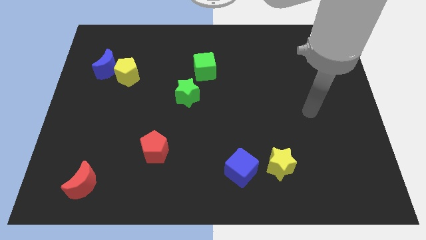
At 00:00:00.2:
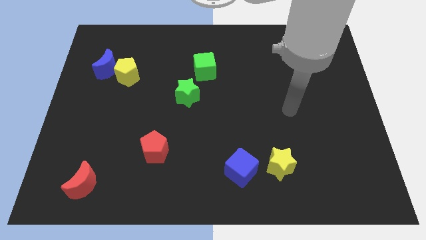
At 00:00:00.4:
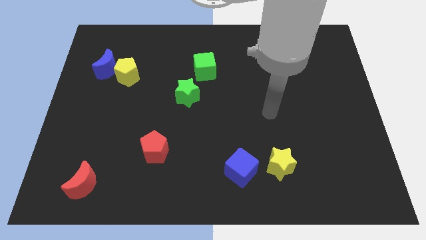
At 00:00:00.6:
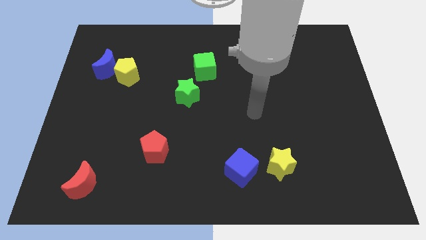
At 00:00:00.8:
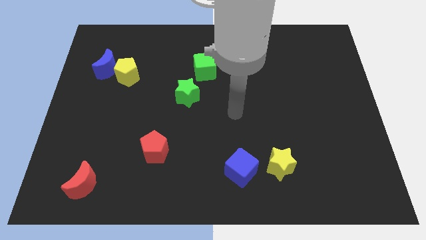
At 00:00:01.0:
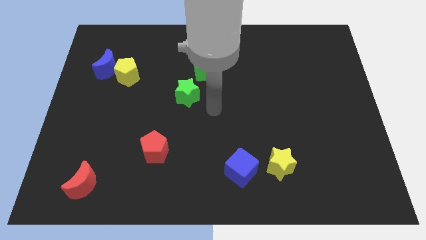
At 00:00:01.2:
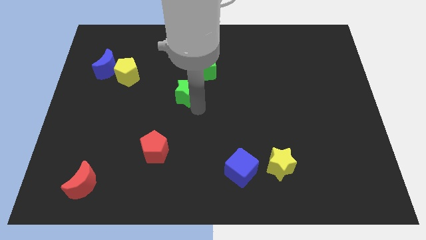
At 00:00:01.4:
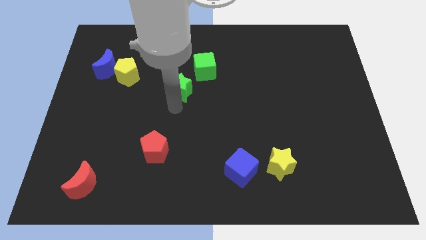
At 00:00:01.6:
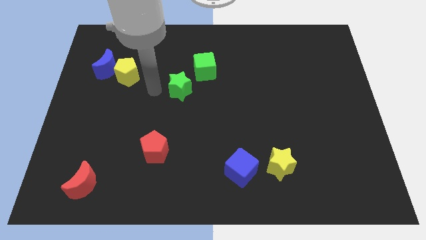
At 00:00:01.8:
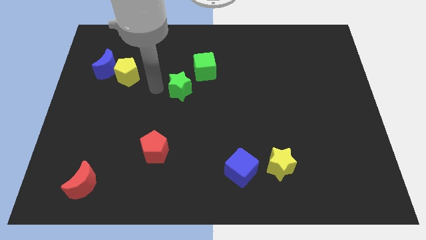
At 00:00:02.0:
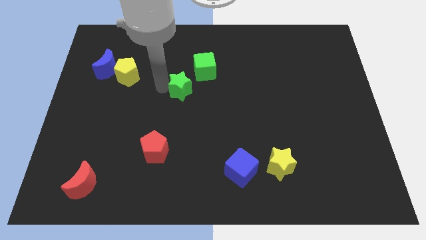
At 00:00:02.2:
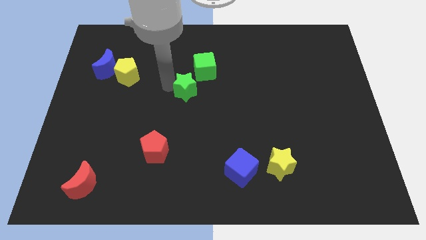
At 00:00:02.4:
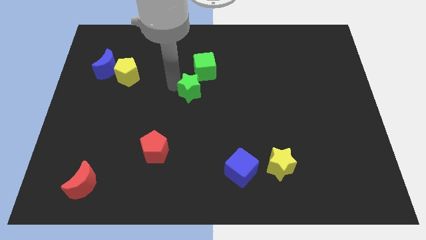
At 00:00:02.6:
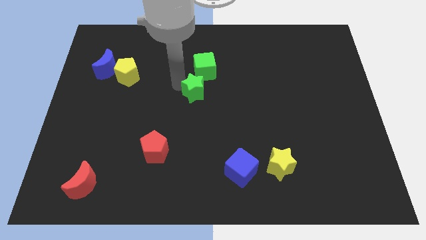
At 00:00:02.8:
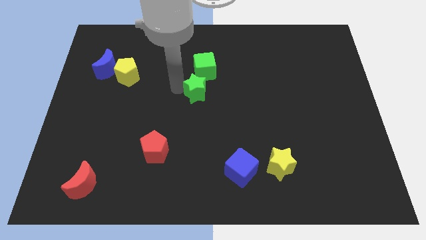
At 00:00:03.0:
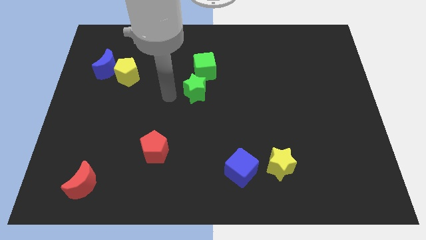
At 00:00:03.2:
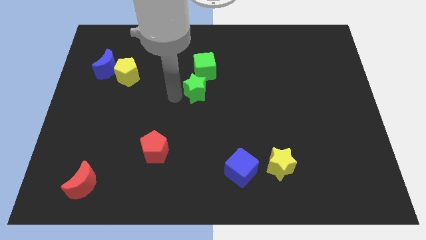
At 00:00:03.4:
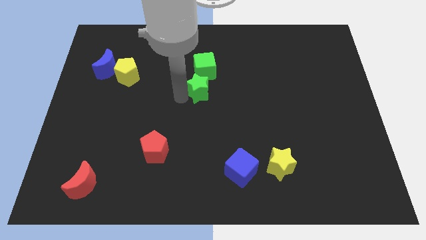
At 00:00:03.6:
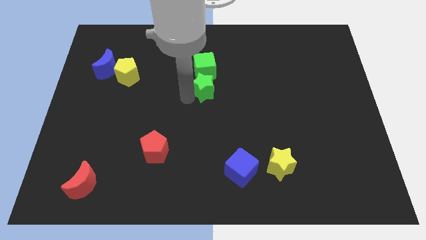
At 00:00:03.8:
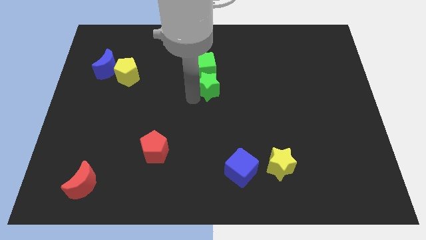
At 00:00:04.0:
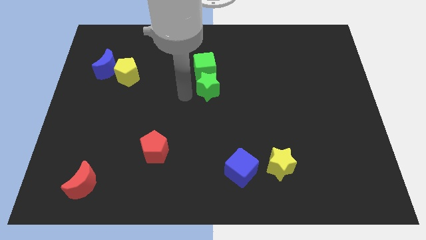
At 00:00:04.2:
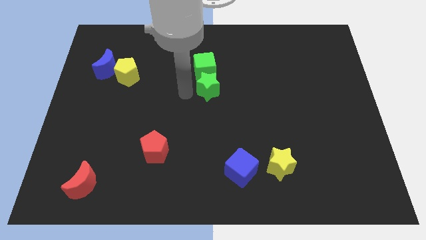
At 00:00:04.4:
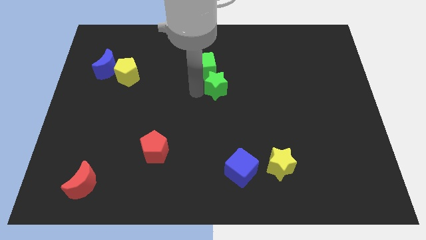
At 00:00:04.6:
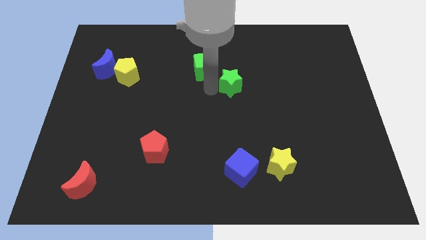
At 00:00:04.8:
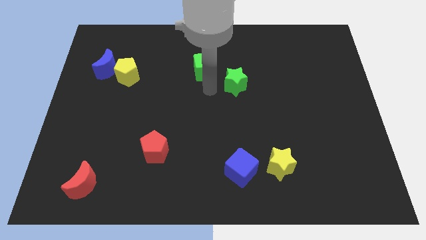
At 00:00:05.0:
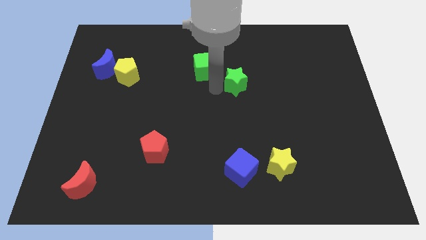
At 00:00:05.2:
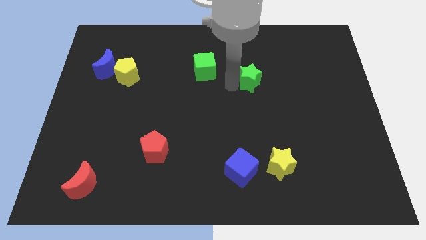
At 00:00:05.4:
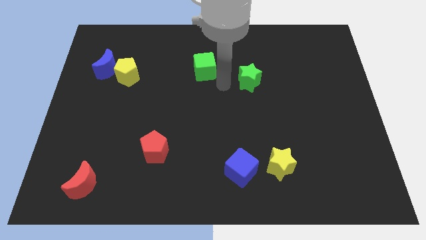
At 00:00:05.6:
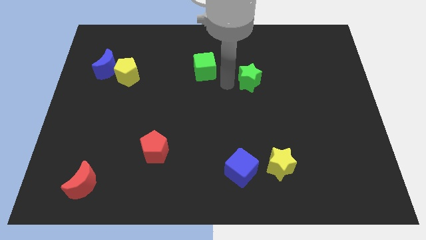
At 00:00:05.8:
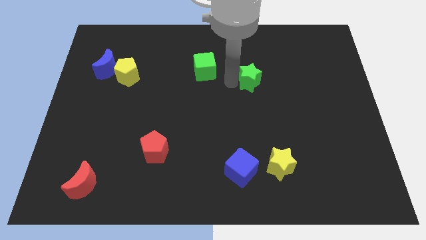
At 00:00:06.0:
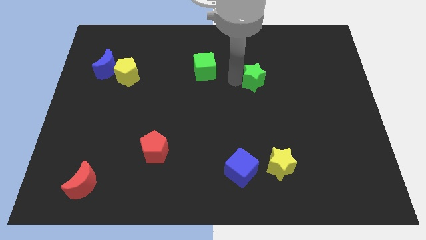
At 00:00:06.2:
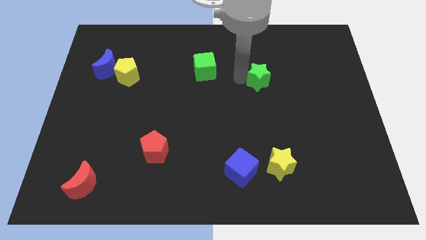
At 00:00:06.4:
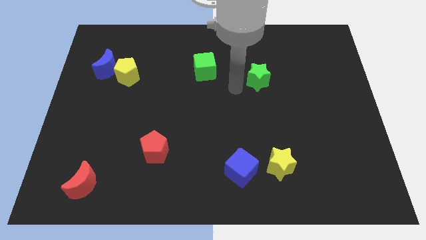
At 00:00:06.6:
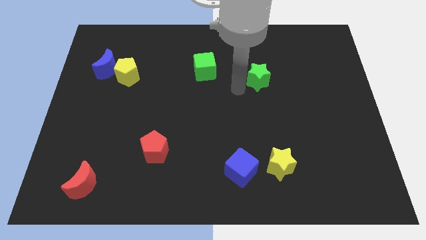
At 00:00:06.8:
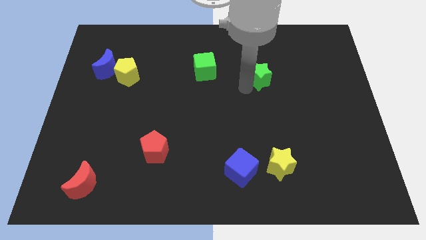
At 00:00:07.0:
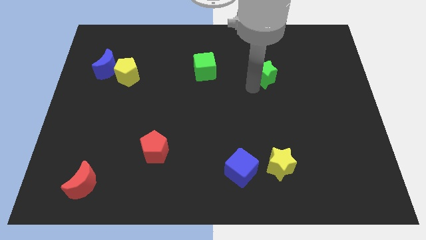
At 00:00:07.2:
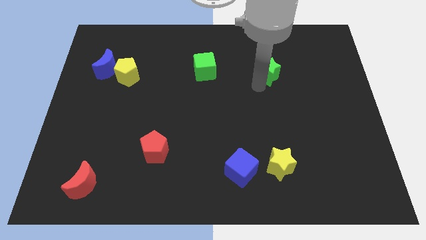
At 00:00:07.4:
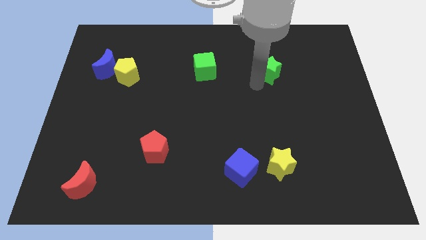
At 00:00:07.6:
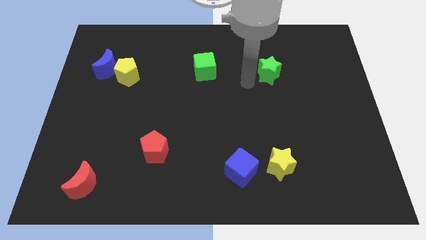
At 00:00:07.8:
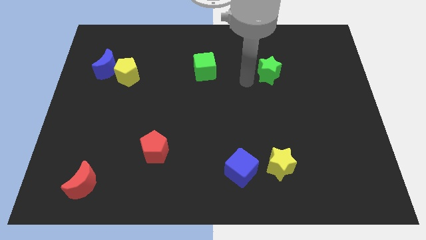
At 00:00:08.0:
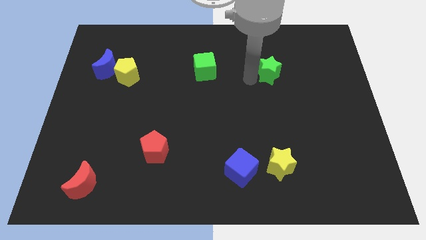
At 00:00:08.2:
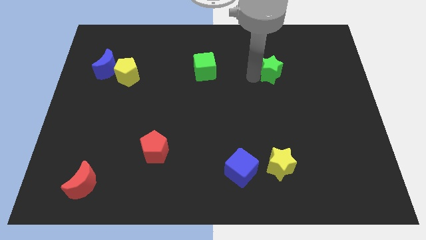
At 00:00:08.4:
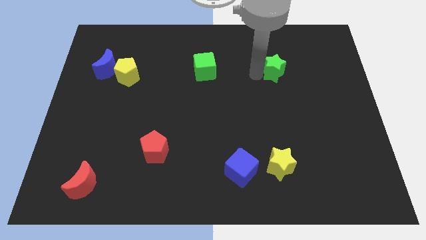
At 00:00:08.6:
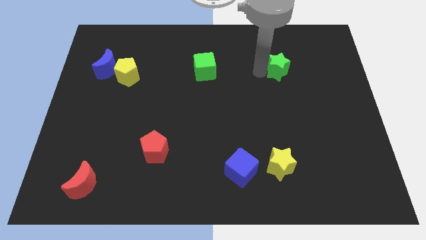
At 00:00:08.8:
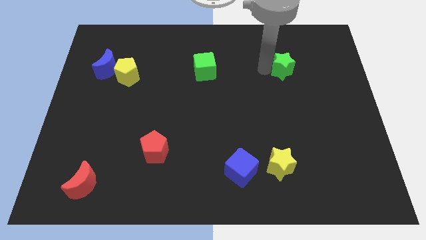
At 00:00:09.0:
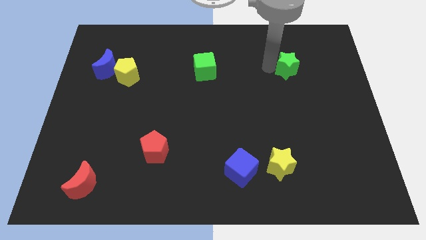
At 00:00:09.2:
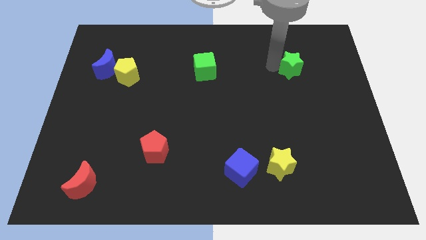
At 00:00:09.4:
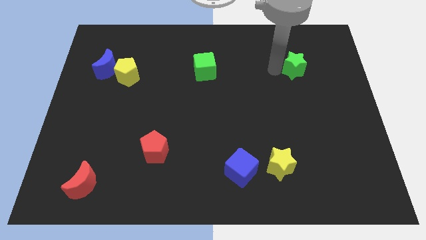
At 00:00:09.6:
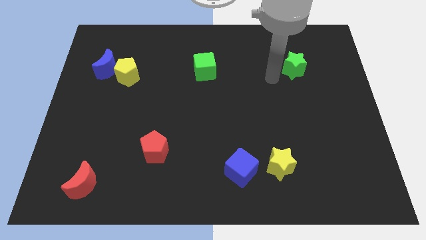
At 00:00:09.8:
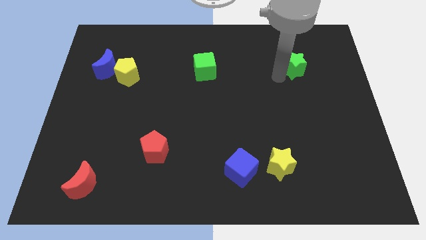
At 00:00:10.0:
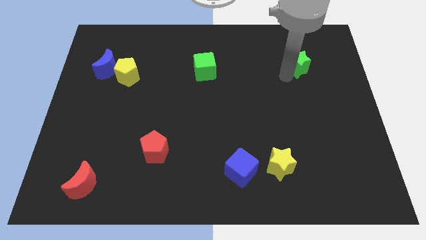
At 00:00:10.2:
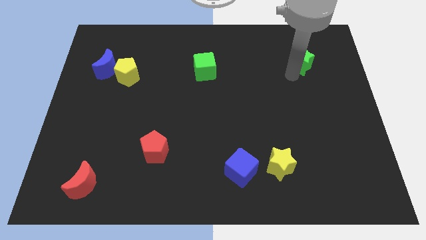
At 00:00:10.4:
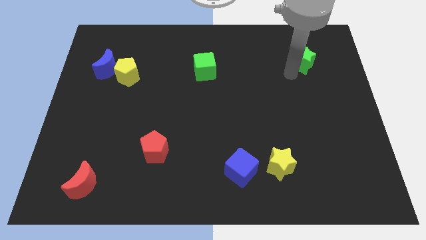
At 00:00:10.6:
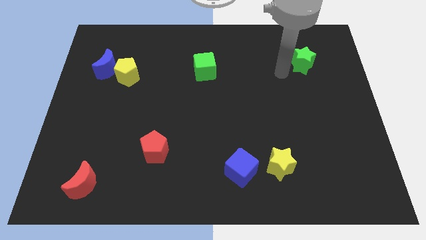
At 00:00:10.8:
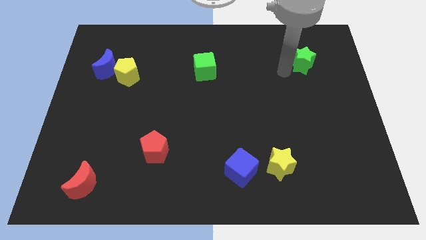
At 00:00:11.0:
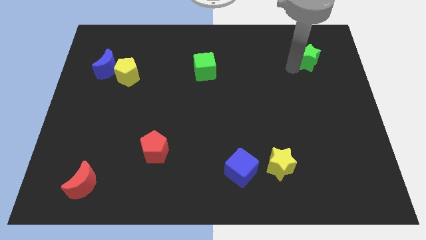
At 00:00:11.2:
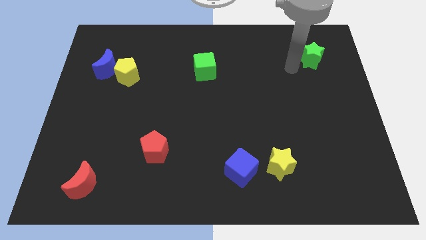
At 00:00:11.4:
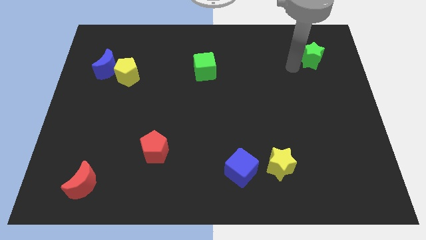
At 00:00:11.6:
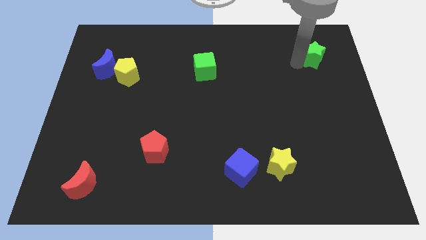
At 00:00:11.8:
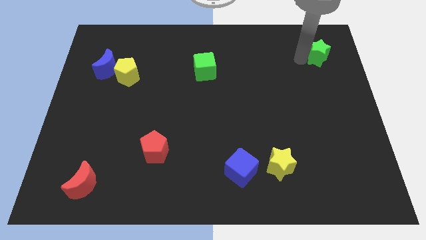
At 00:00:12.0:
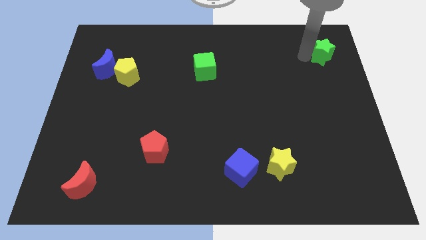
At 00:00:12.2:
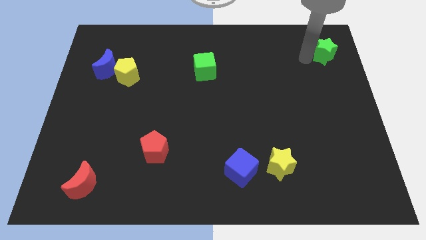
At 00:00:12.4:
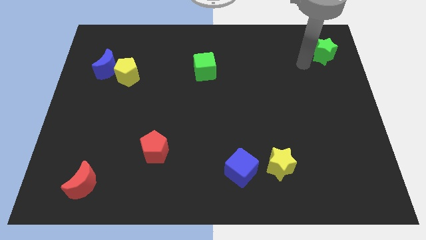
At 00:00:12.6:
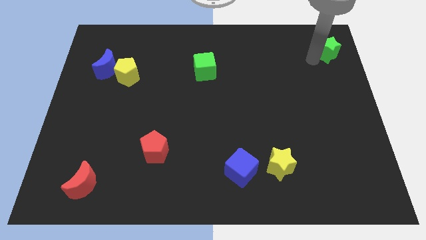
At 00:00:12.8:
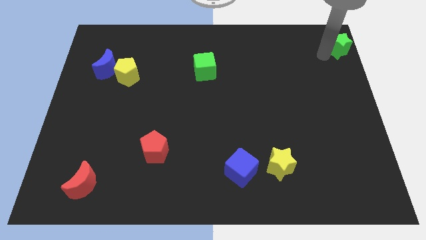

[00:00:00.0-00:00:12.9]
slide the green star to the upper right corner
